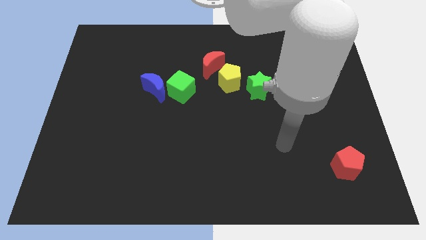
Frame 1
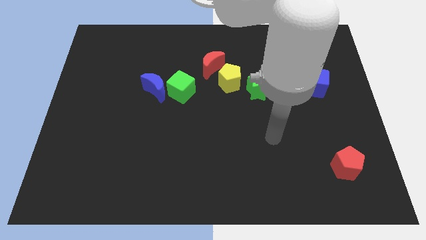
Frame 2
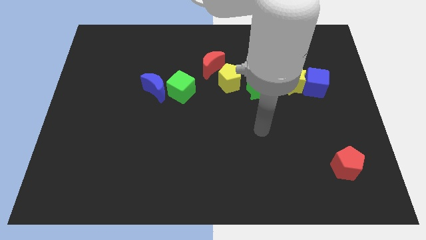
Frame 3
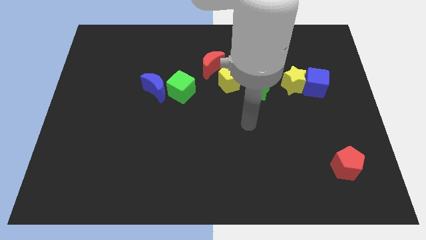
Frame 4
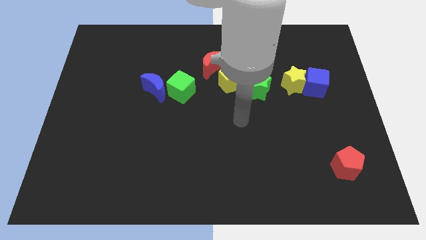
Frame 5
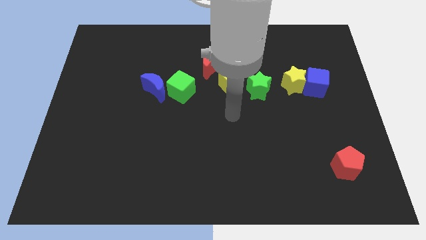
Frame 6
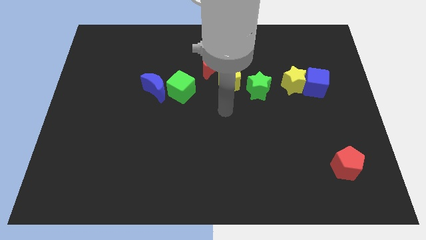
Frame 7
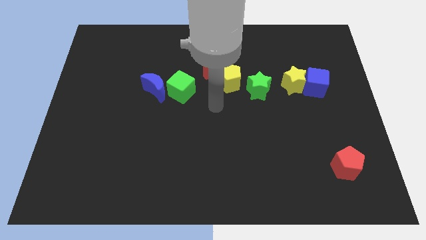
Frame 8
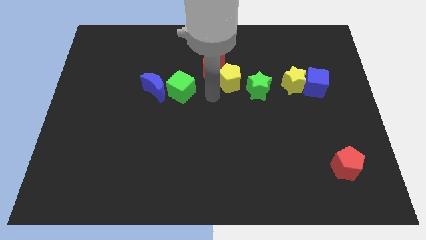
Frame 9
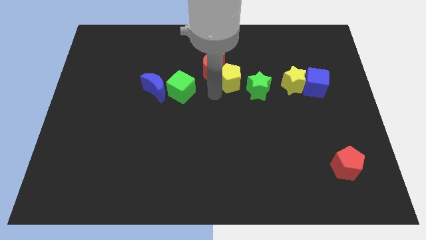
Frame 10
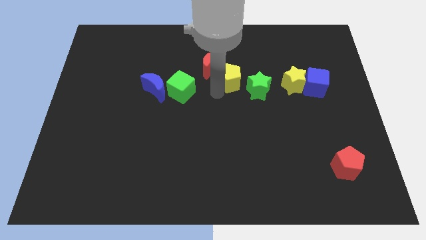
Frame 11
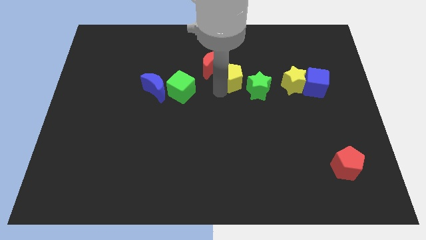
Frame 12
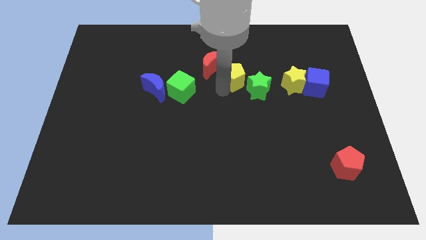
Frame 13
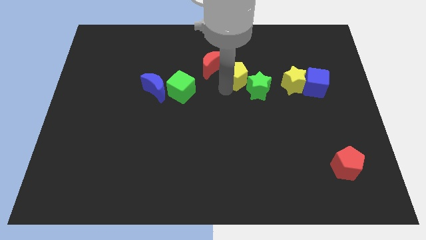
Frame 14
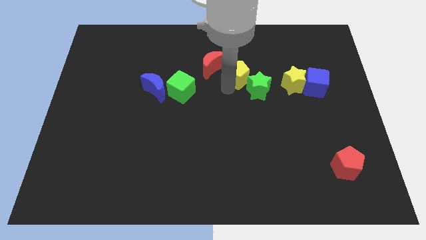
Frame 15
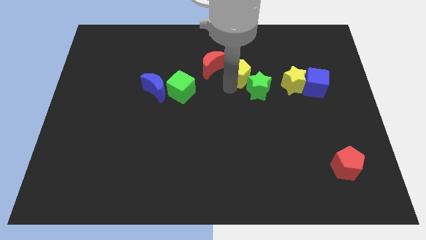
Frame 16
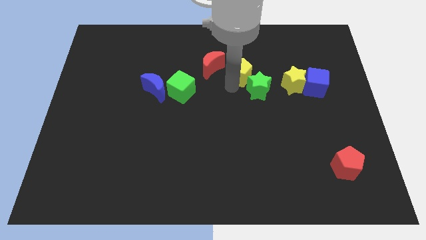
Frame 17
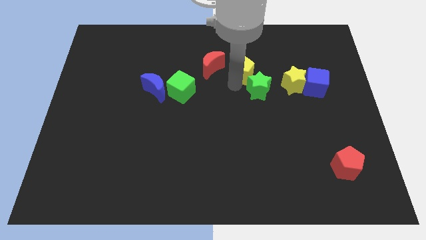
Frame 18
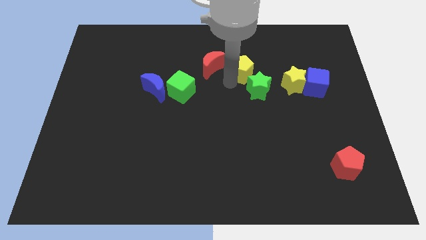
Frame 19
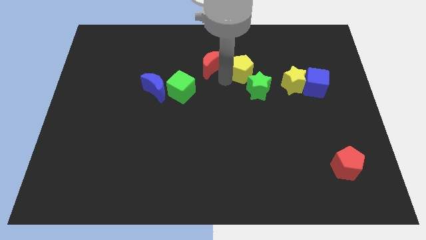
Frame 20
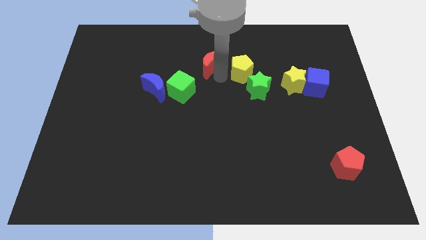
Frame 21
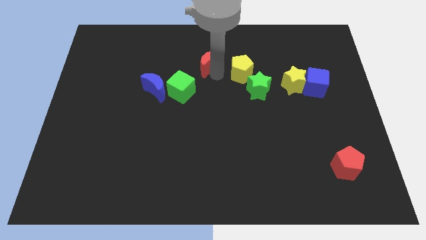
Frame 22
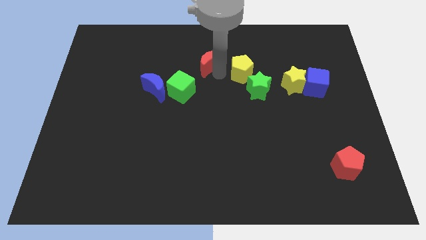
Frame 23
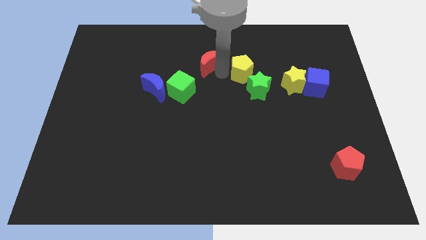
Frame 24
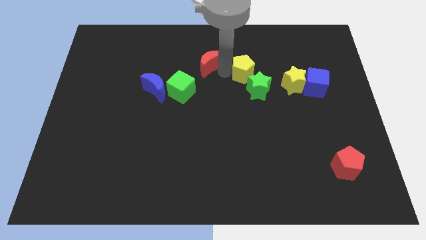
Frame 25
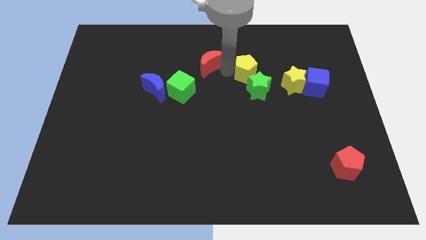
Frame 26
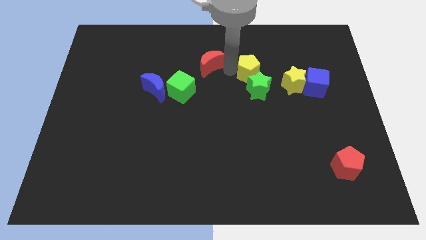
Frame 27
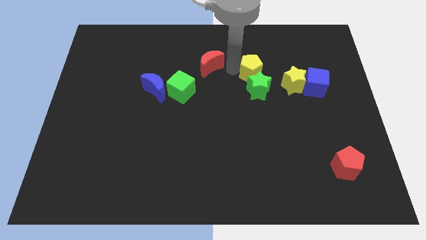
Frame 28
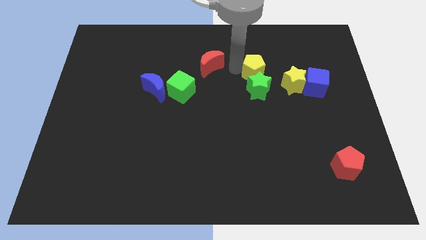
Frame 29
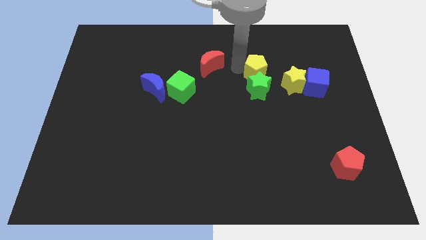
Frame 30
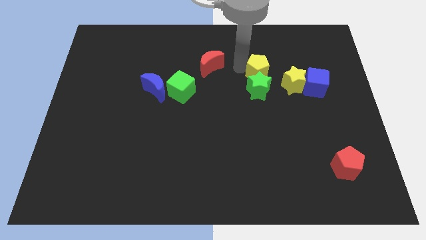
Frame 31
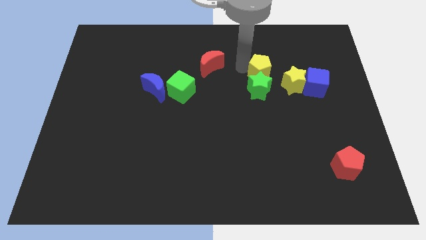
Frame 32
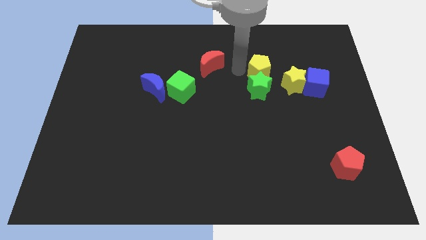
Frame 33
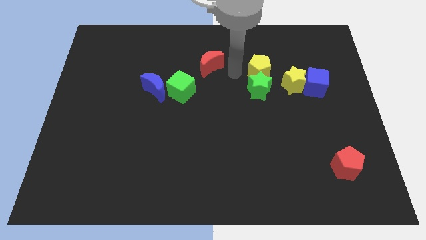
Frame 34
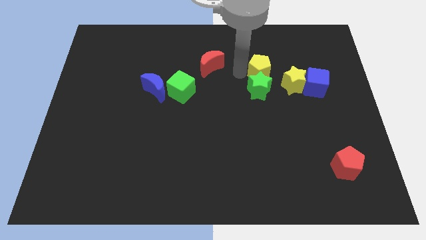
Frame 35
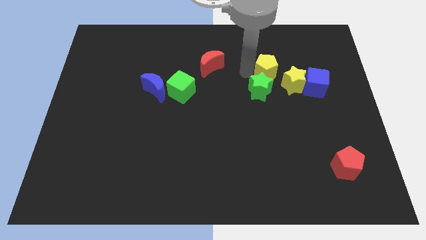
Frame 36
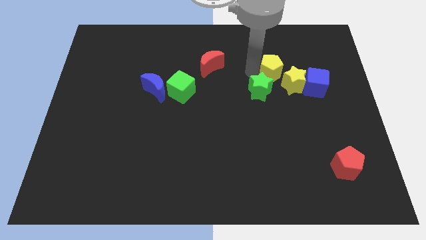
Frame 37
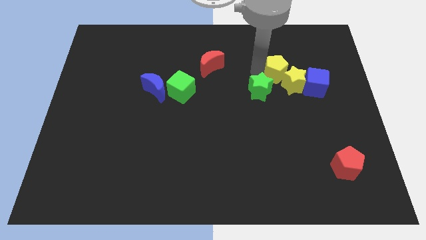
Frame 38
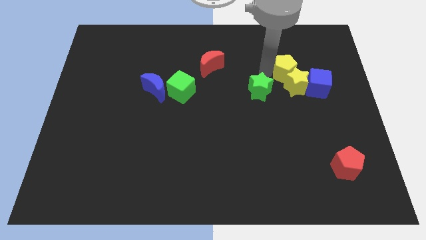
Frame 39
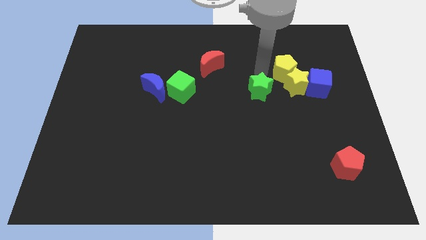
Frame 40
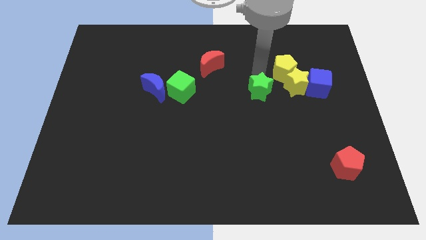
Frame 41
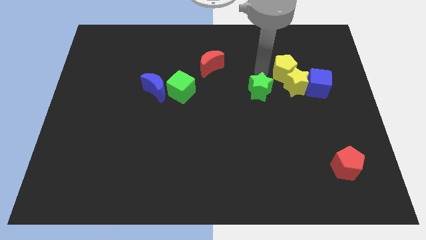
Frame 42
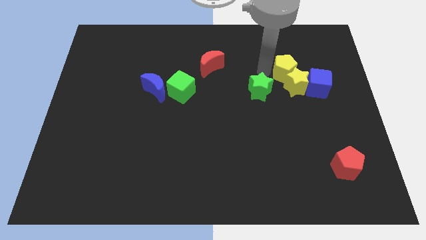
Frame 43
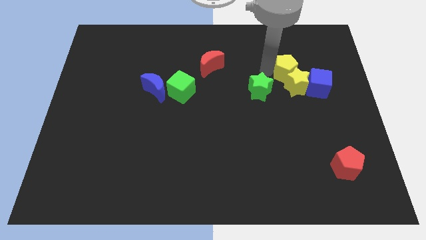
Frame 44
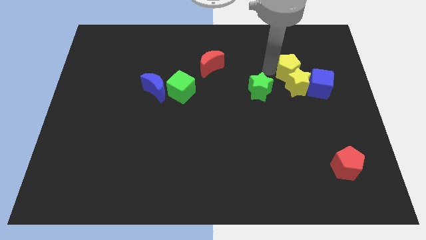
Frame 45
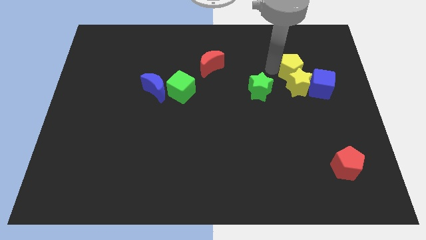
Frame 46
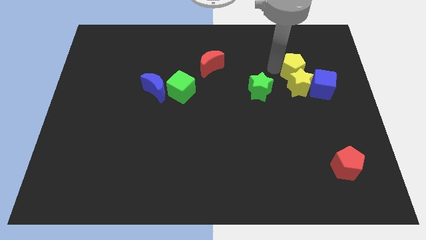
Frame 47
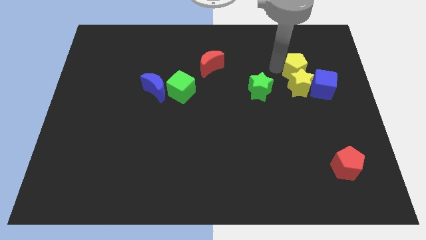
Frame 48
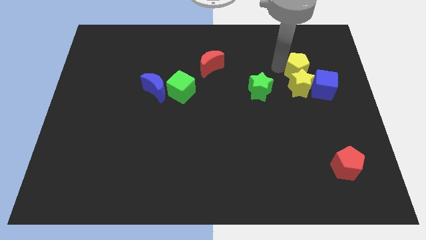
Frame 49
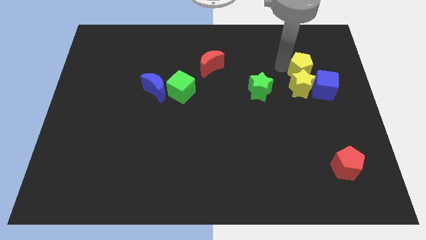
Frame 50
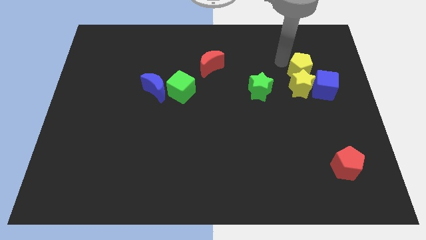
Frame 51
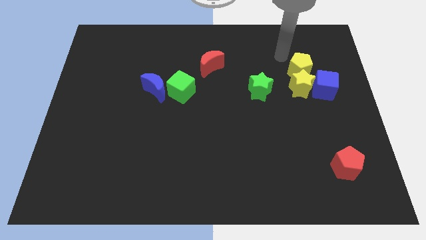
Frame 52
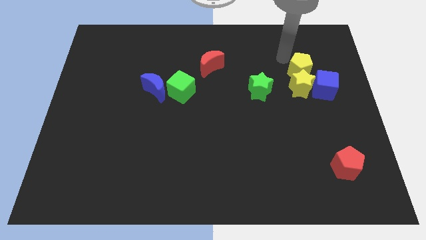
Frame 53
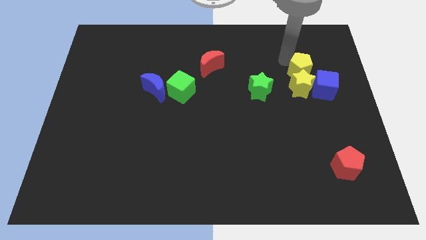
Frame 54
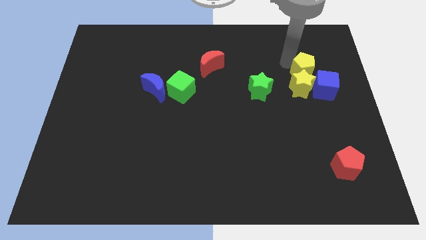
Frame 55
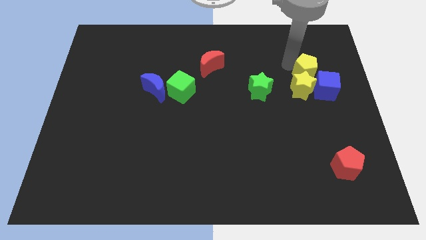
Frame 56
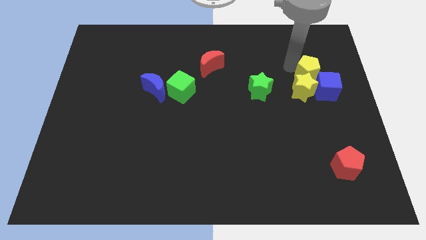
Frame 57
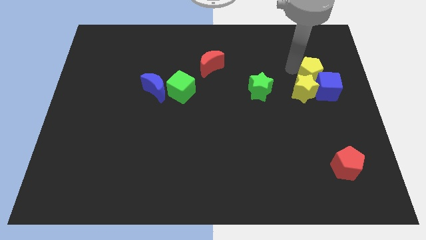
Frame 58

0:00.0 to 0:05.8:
move the yellow pentagon next to the blue cube

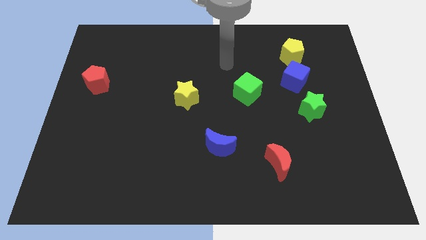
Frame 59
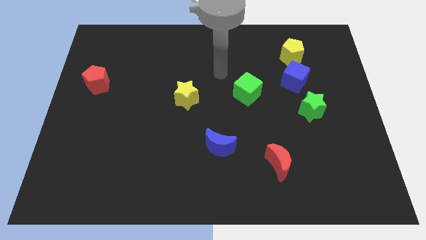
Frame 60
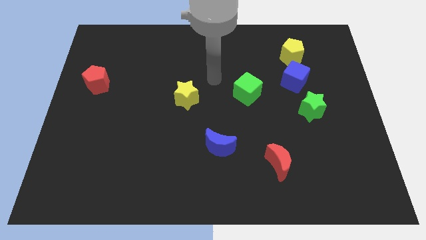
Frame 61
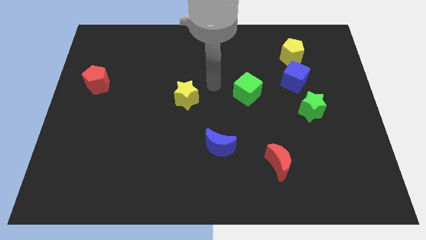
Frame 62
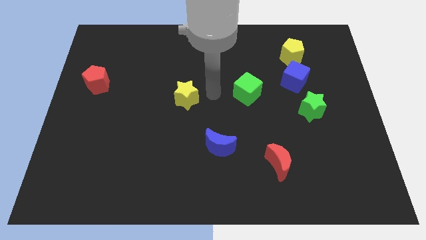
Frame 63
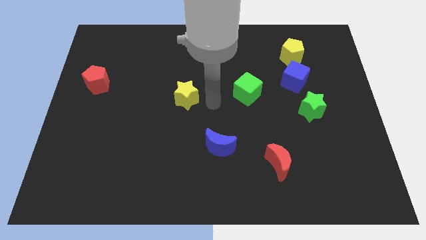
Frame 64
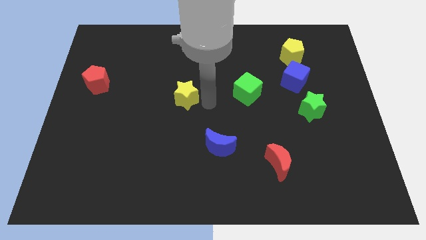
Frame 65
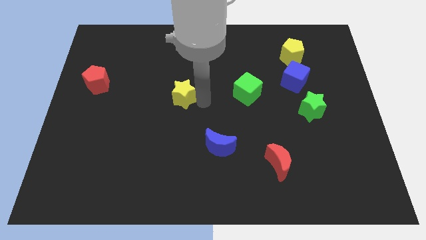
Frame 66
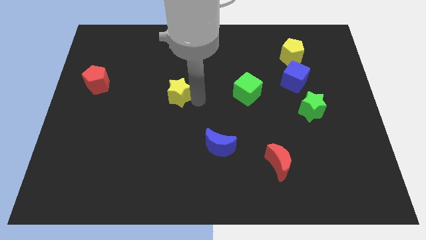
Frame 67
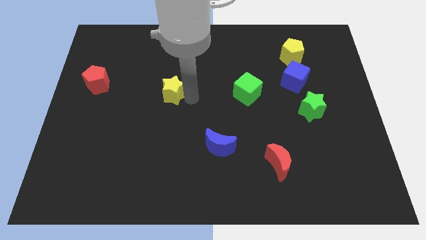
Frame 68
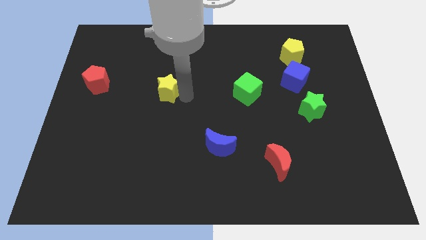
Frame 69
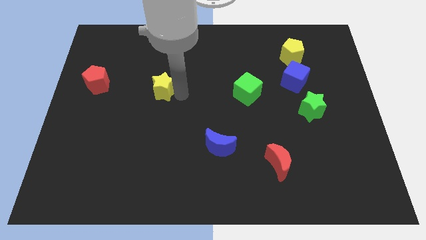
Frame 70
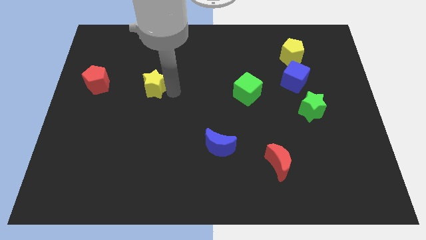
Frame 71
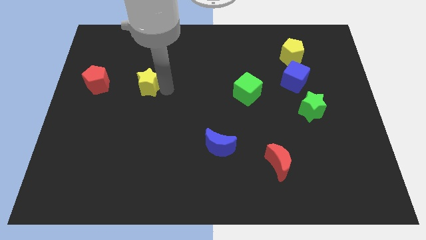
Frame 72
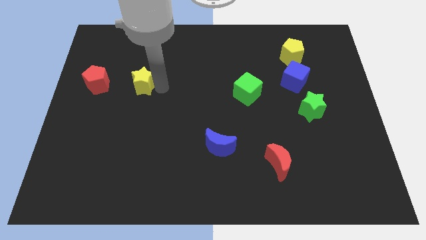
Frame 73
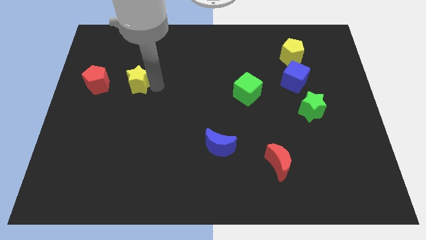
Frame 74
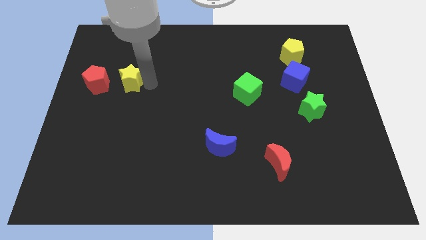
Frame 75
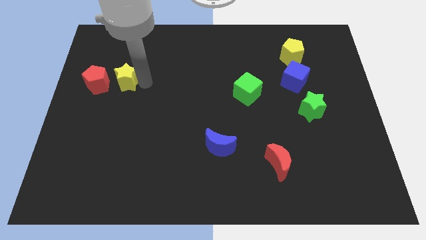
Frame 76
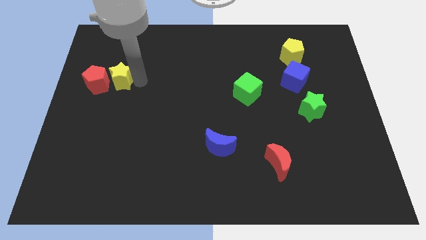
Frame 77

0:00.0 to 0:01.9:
move the yellow star next to the red pentagon
